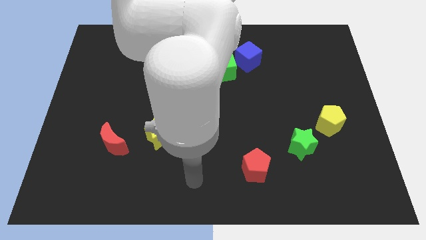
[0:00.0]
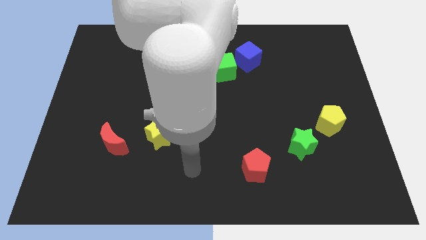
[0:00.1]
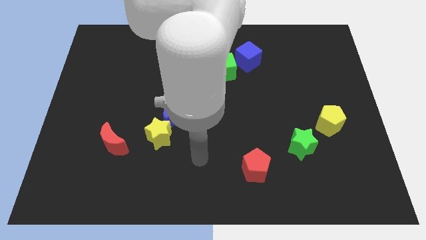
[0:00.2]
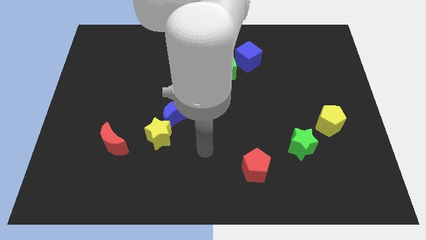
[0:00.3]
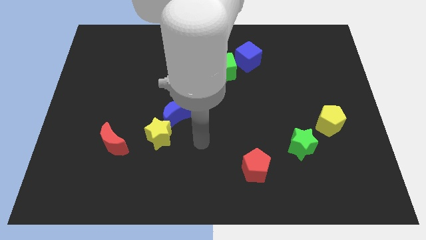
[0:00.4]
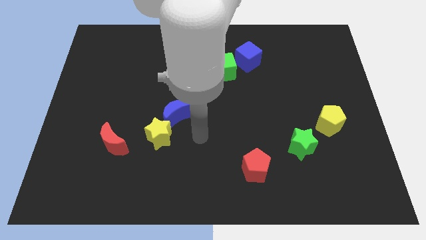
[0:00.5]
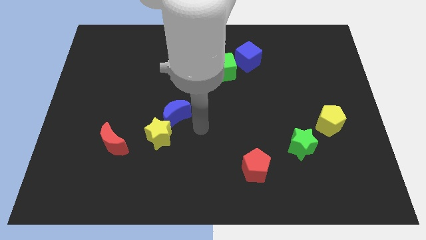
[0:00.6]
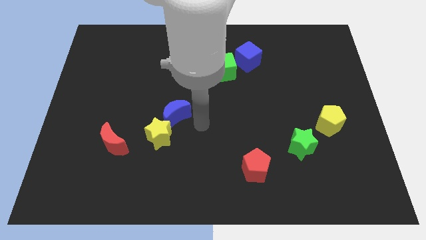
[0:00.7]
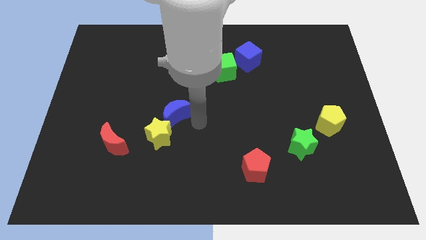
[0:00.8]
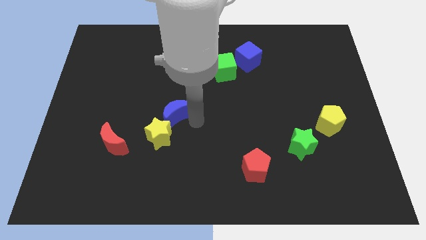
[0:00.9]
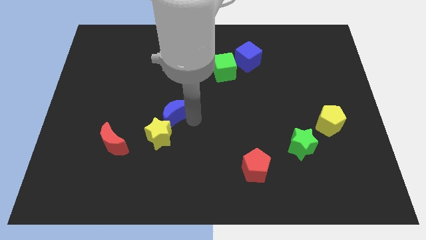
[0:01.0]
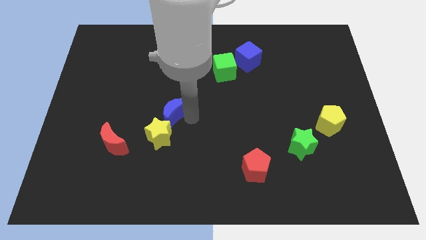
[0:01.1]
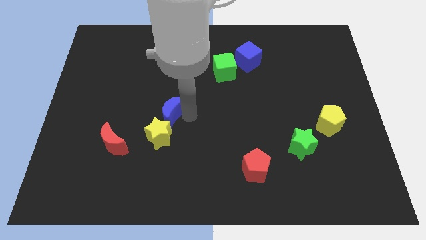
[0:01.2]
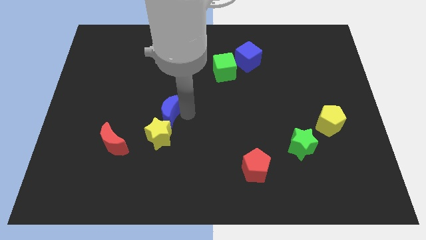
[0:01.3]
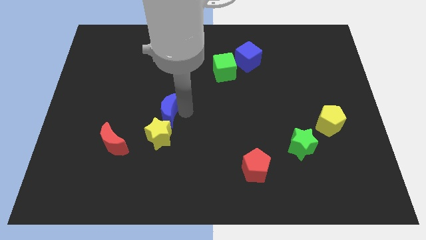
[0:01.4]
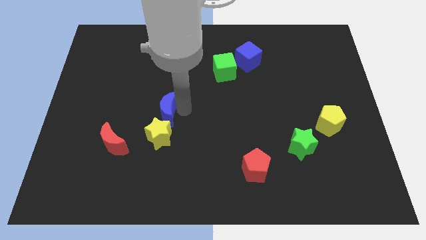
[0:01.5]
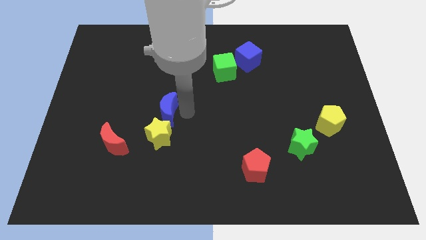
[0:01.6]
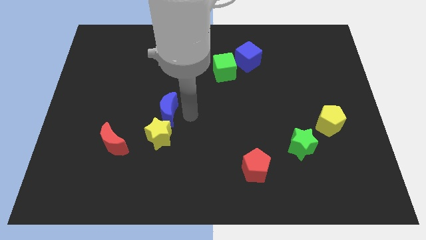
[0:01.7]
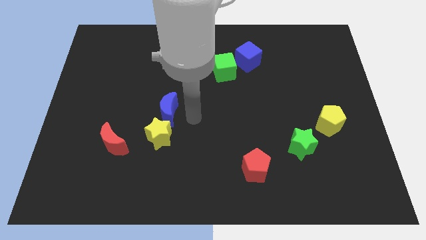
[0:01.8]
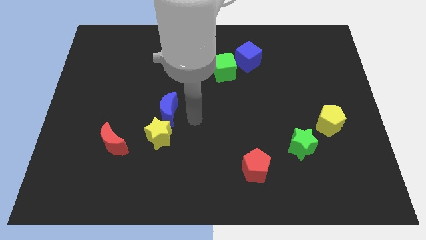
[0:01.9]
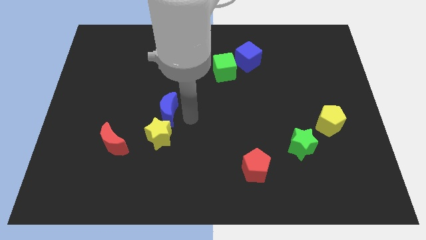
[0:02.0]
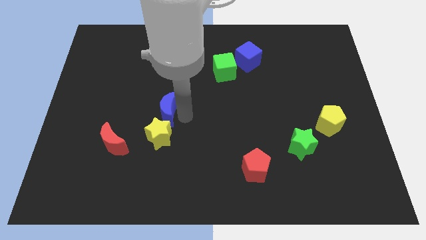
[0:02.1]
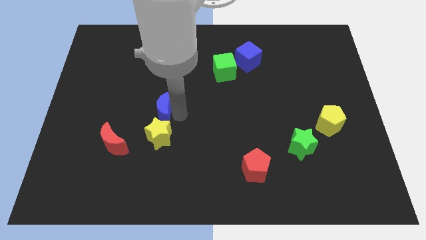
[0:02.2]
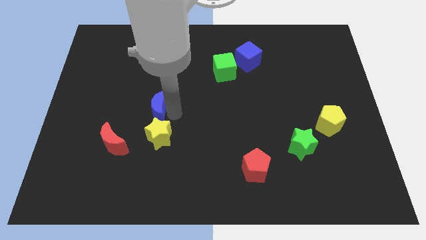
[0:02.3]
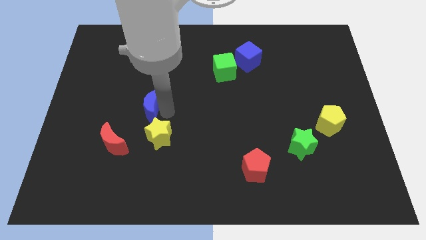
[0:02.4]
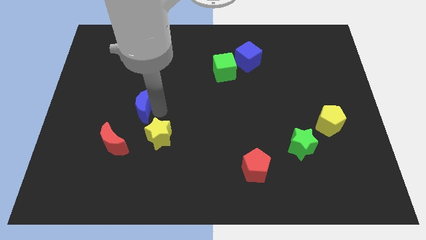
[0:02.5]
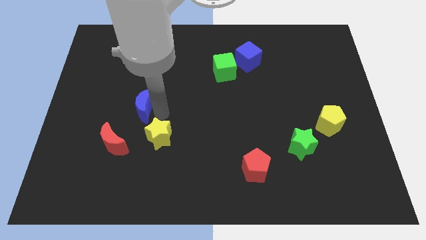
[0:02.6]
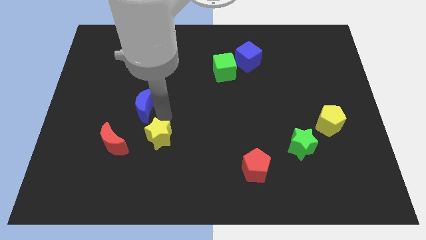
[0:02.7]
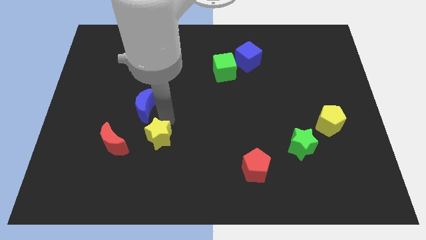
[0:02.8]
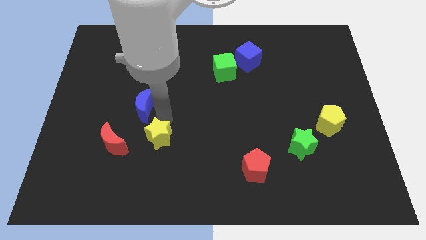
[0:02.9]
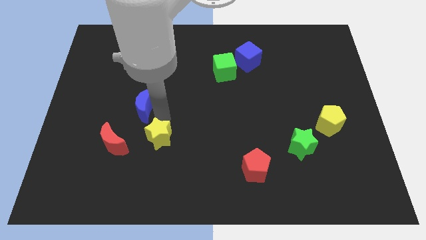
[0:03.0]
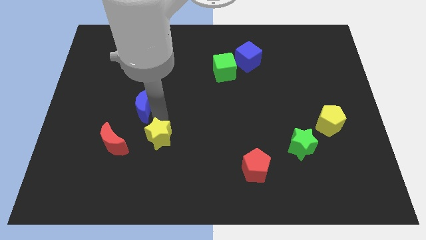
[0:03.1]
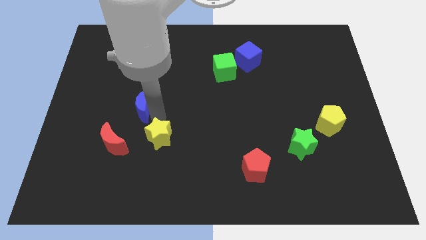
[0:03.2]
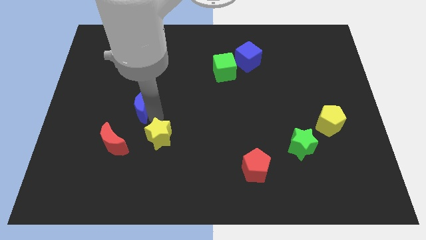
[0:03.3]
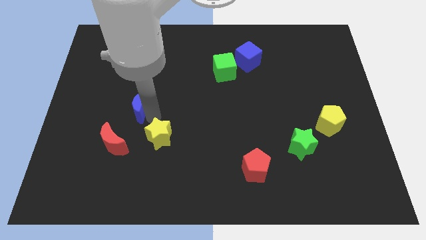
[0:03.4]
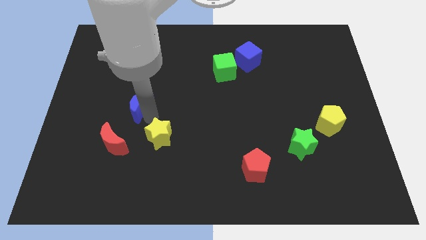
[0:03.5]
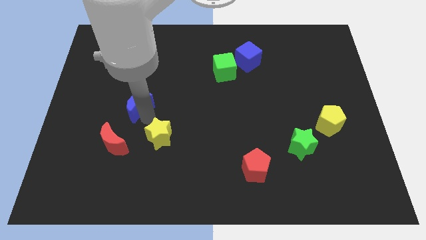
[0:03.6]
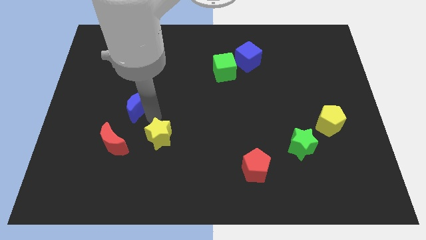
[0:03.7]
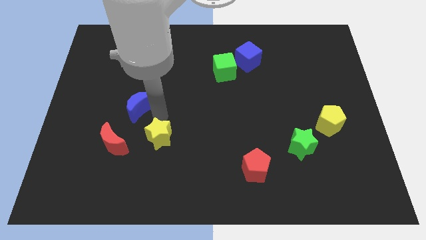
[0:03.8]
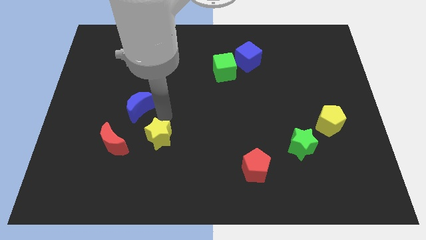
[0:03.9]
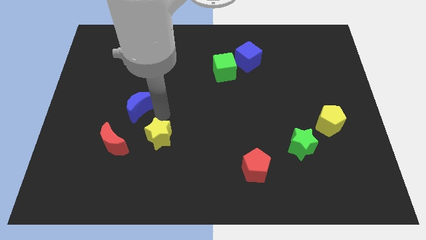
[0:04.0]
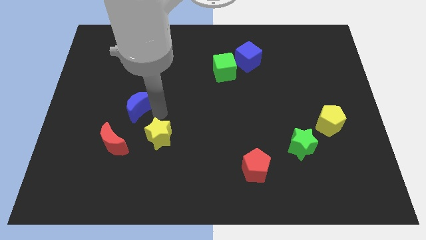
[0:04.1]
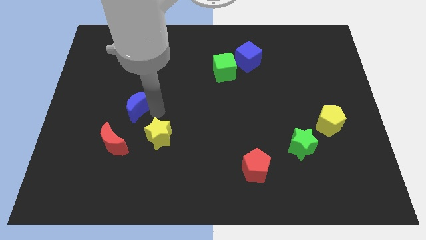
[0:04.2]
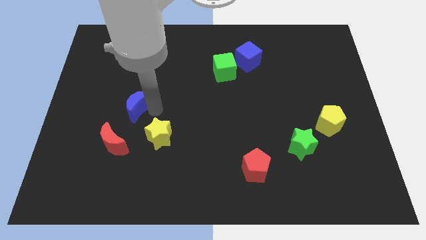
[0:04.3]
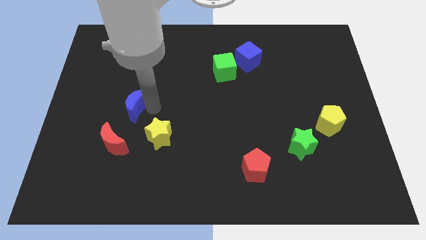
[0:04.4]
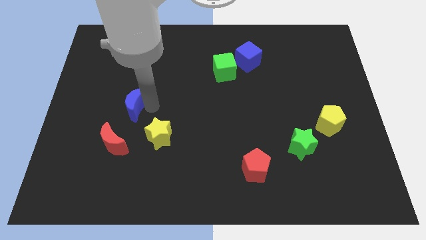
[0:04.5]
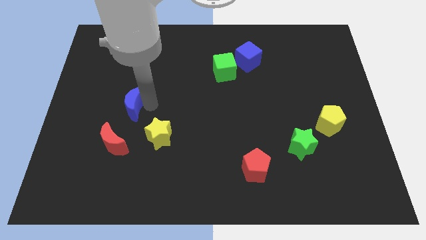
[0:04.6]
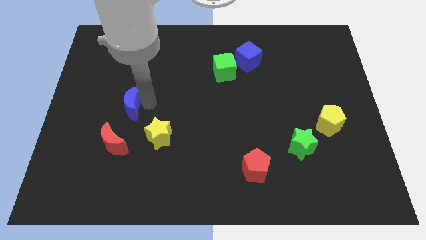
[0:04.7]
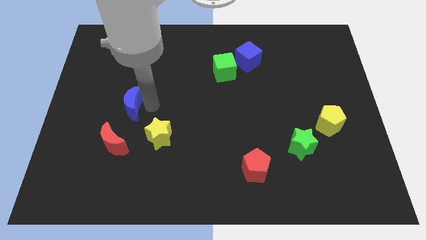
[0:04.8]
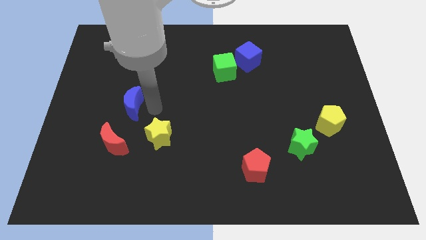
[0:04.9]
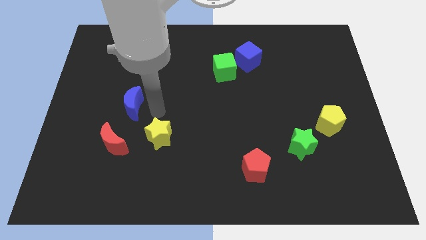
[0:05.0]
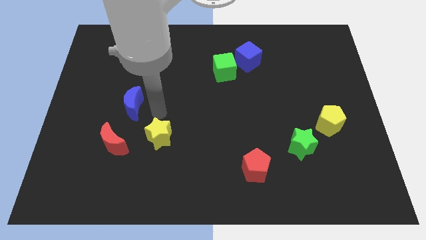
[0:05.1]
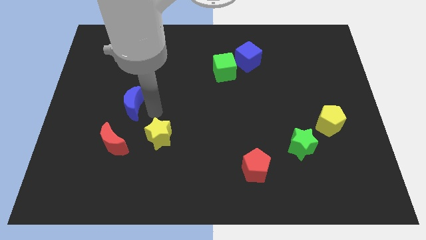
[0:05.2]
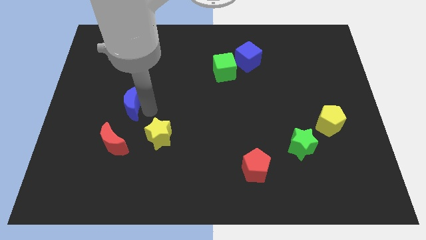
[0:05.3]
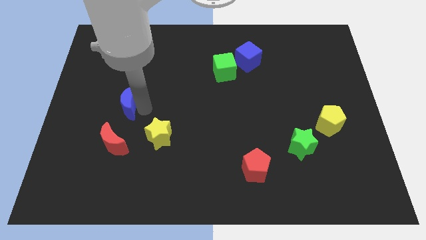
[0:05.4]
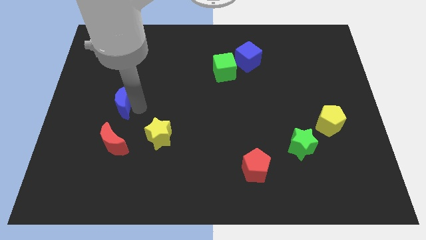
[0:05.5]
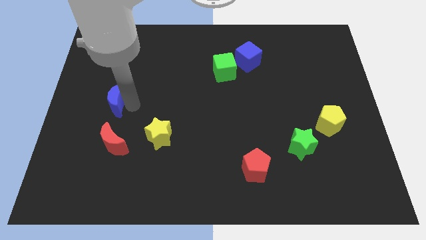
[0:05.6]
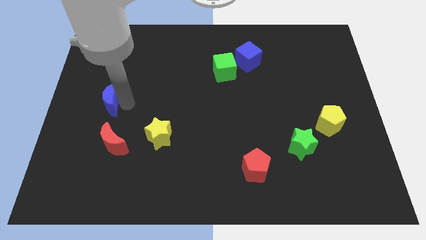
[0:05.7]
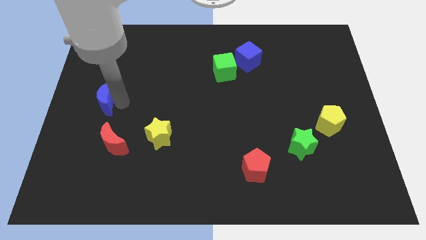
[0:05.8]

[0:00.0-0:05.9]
slide the blue moon to the center left

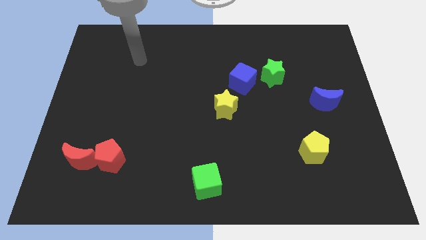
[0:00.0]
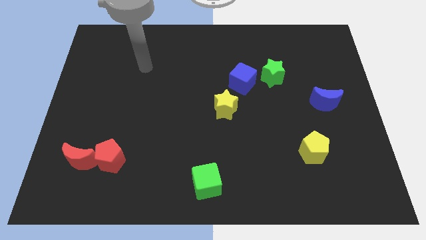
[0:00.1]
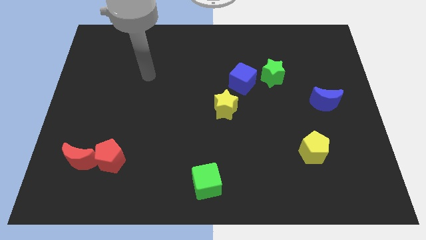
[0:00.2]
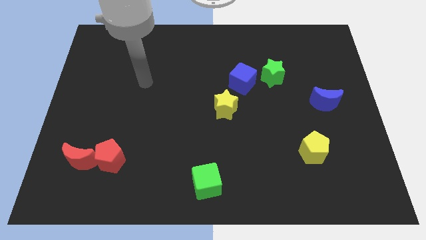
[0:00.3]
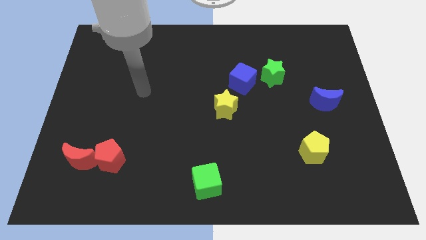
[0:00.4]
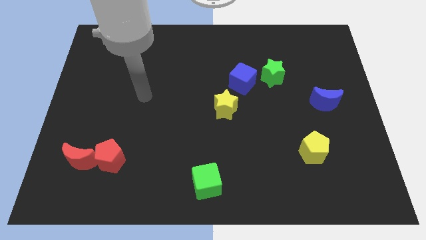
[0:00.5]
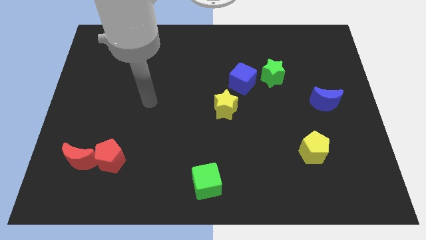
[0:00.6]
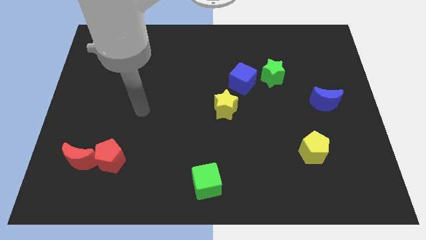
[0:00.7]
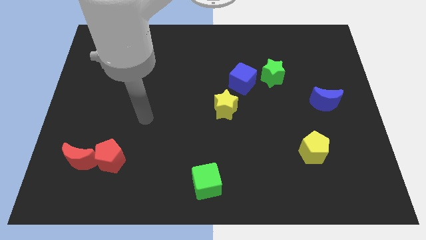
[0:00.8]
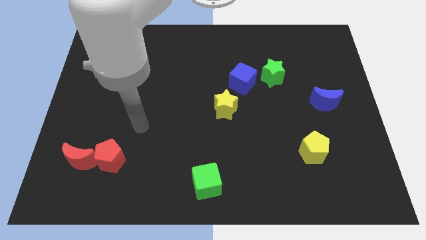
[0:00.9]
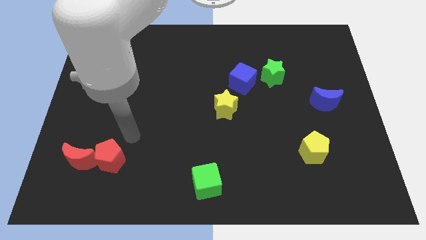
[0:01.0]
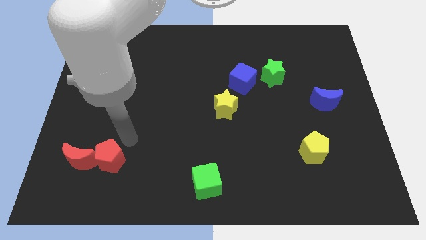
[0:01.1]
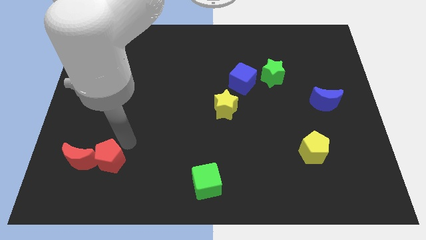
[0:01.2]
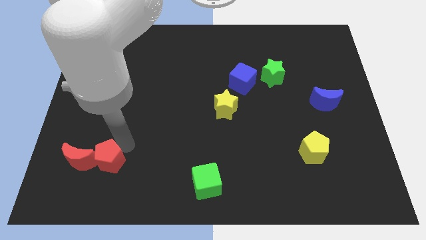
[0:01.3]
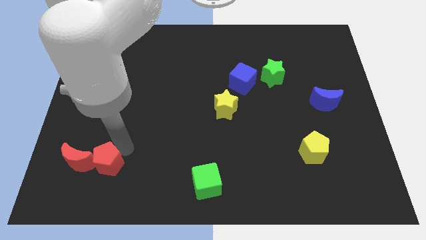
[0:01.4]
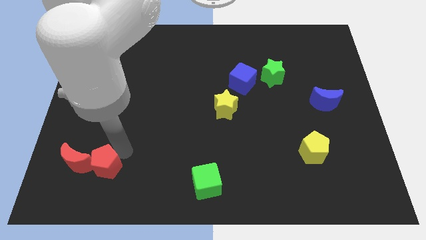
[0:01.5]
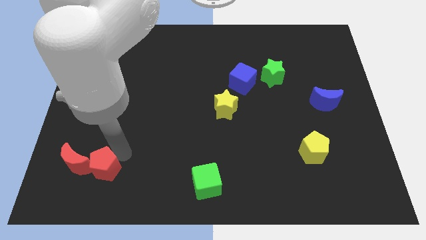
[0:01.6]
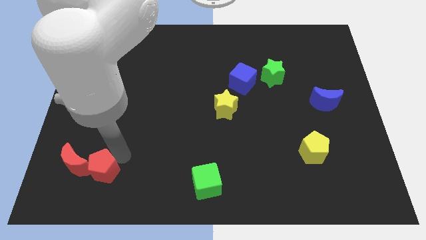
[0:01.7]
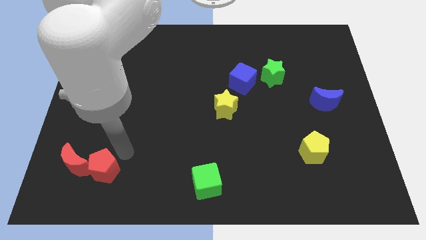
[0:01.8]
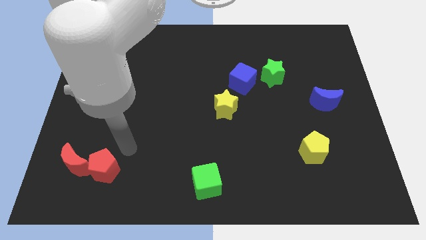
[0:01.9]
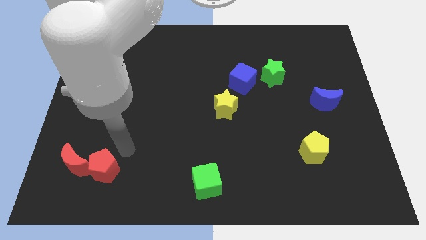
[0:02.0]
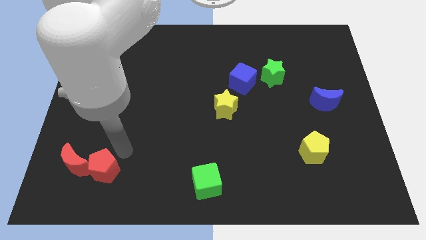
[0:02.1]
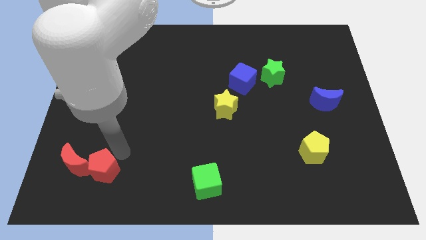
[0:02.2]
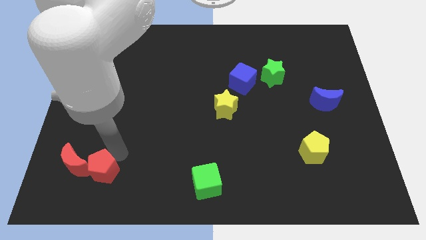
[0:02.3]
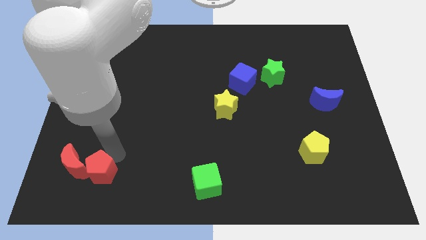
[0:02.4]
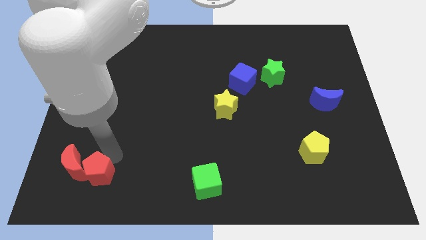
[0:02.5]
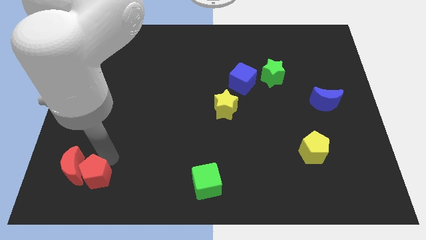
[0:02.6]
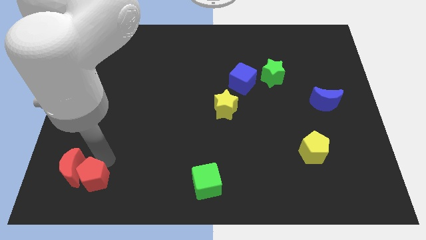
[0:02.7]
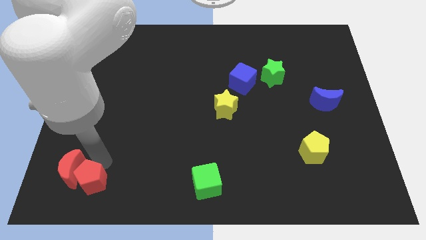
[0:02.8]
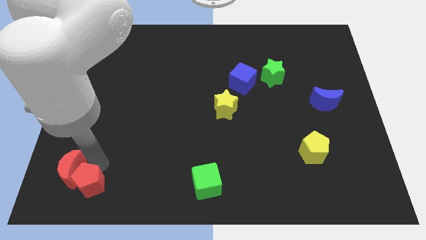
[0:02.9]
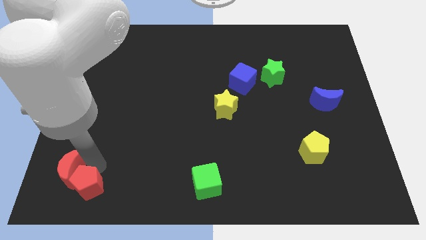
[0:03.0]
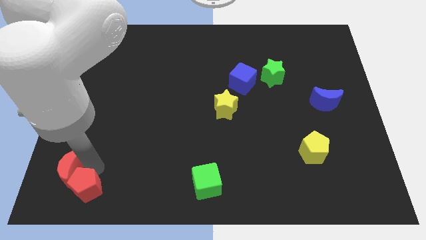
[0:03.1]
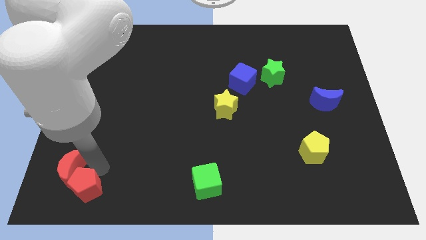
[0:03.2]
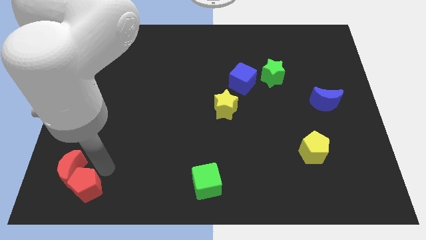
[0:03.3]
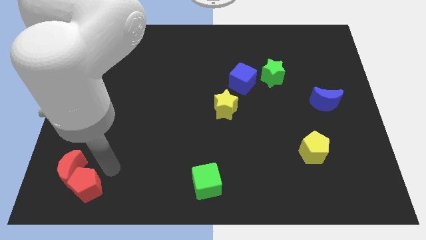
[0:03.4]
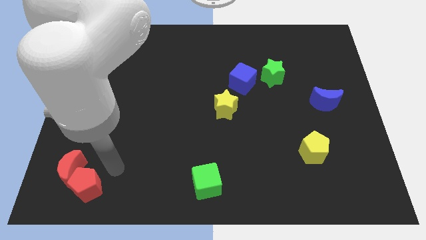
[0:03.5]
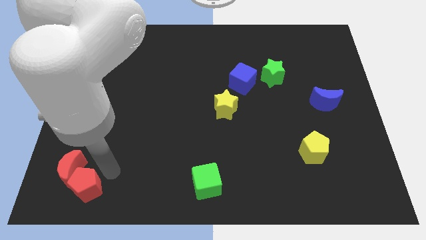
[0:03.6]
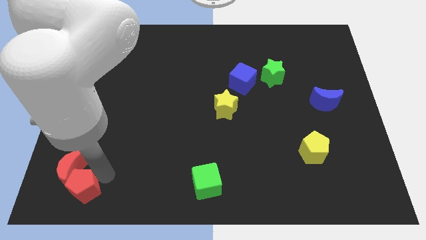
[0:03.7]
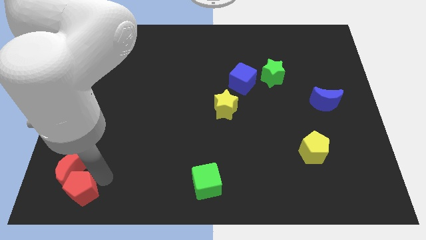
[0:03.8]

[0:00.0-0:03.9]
push the red pentagon to the bottom left of the board
